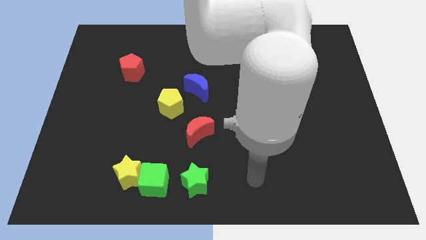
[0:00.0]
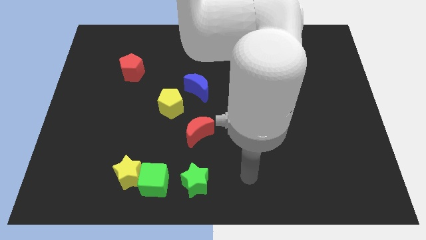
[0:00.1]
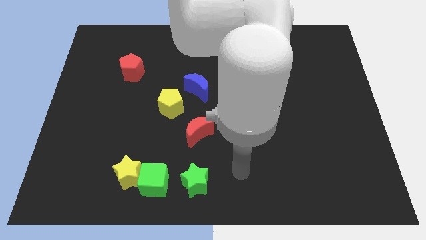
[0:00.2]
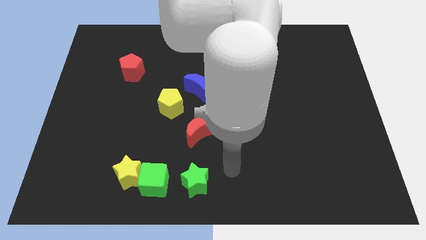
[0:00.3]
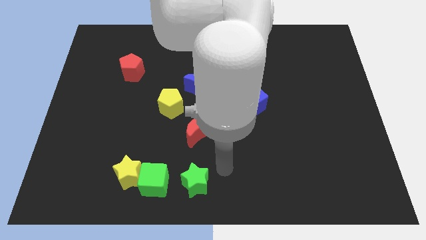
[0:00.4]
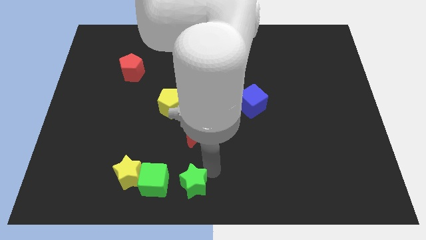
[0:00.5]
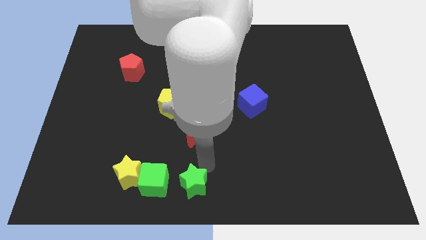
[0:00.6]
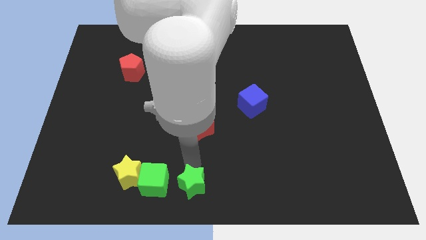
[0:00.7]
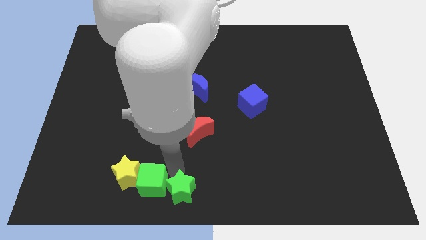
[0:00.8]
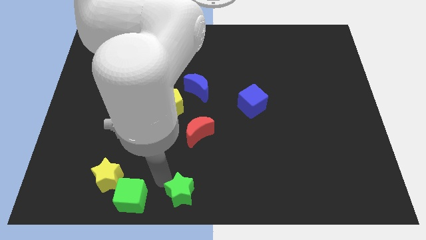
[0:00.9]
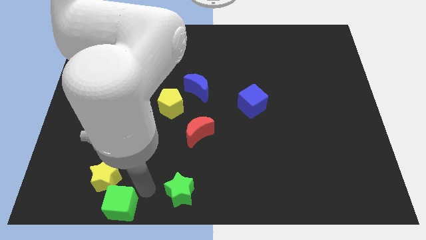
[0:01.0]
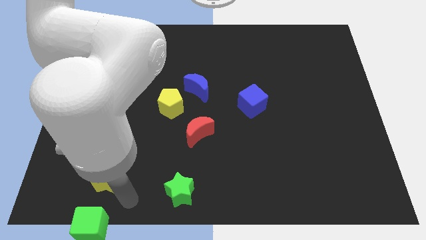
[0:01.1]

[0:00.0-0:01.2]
separate the yellow star from the green cube

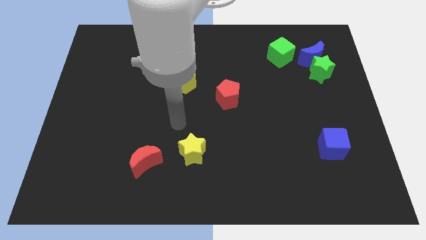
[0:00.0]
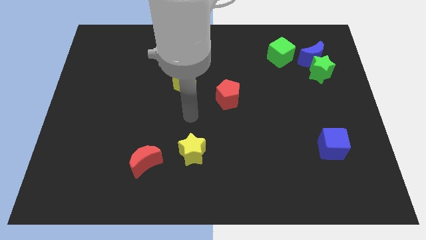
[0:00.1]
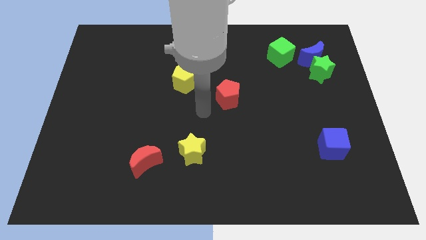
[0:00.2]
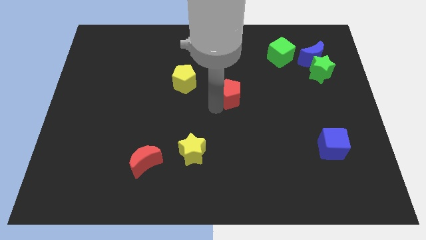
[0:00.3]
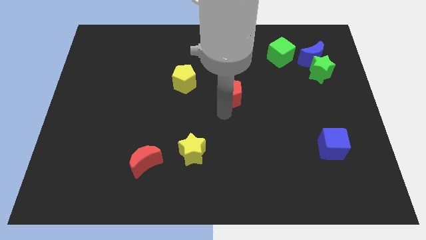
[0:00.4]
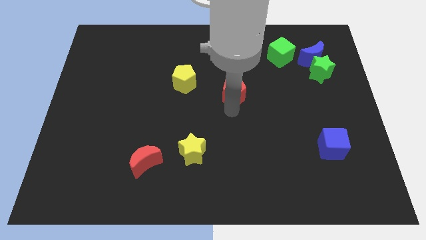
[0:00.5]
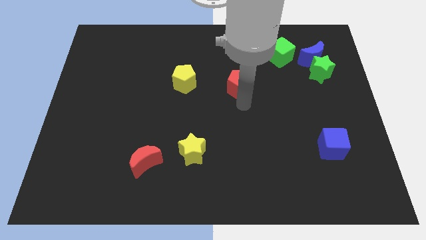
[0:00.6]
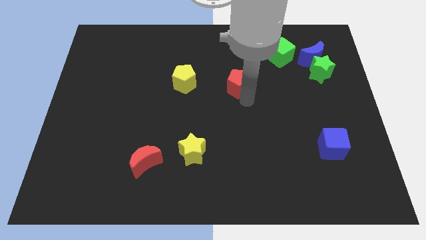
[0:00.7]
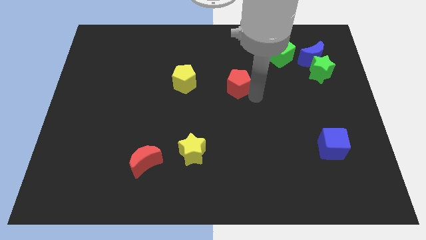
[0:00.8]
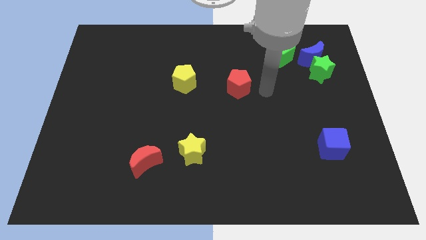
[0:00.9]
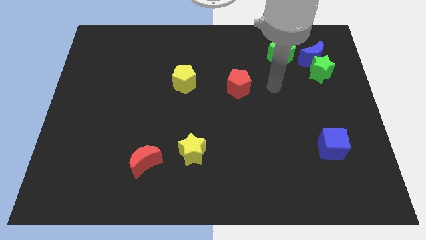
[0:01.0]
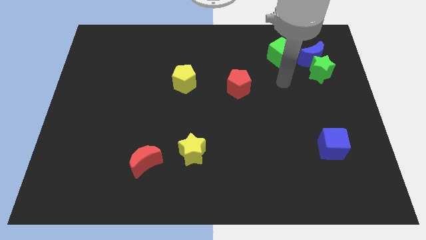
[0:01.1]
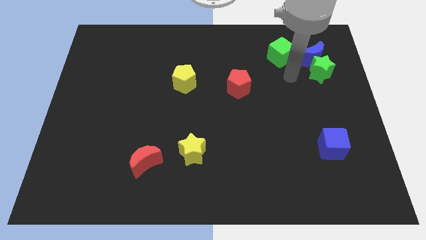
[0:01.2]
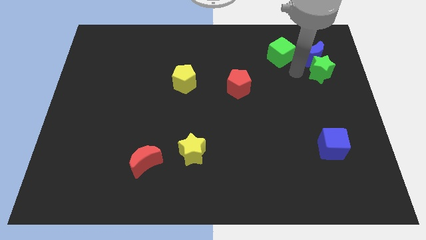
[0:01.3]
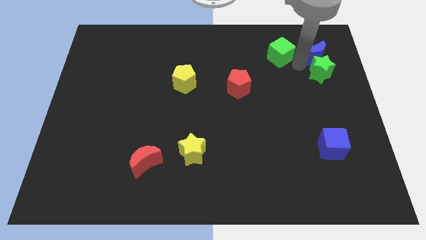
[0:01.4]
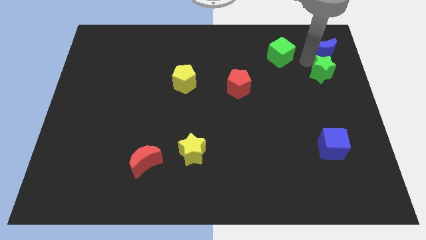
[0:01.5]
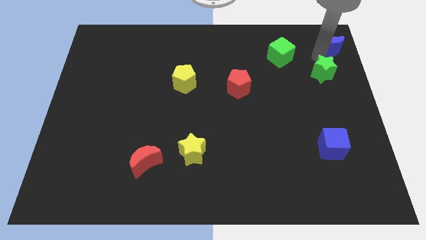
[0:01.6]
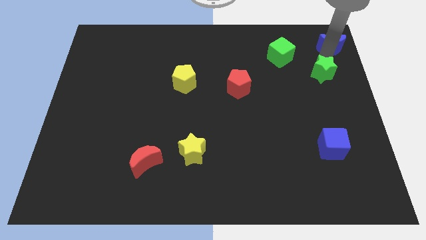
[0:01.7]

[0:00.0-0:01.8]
move the green star away from the blue moon

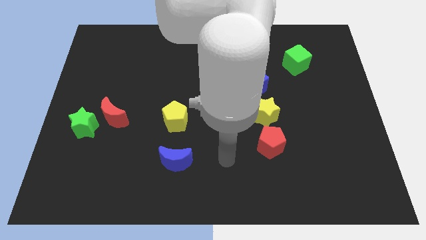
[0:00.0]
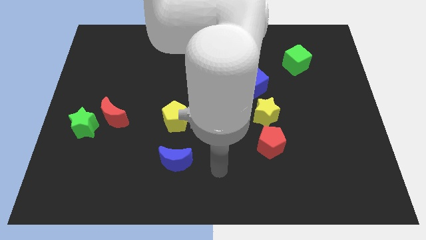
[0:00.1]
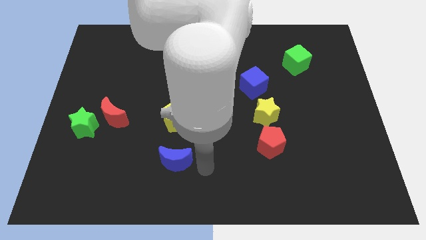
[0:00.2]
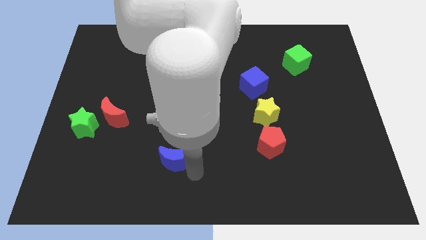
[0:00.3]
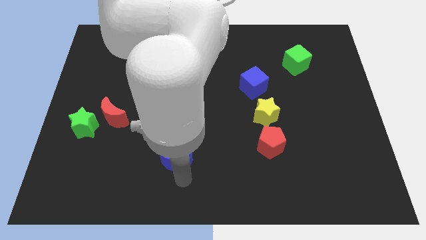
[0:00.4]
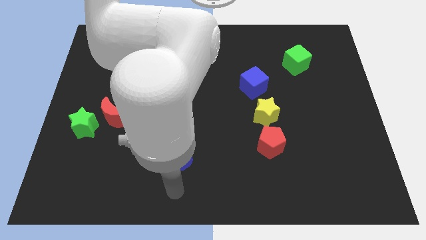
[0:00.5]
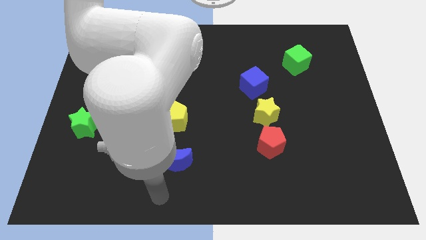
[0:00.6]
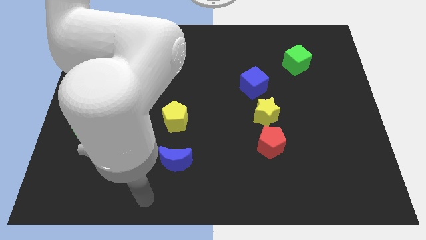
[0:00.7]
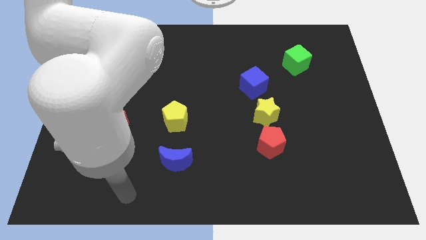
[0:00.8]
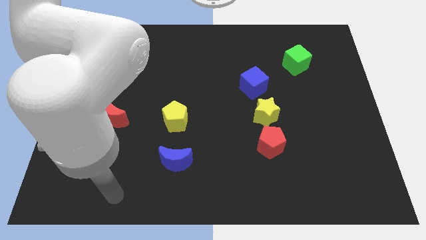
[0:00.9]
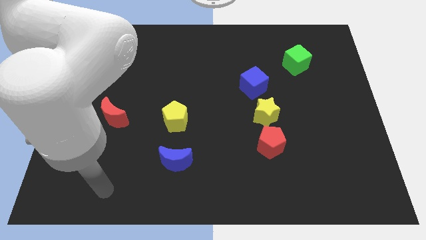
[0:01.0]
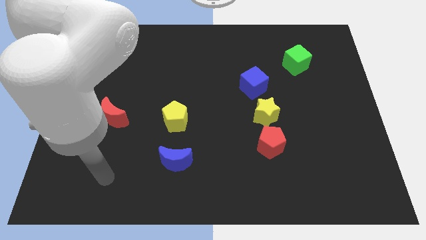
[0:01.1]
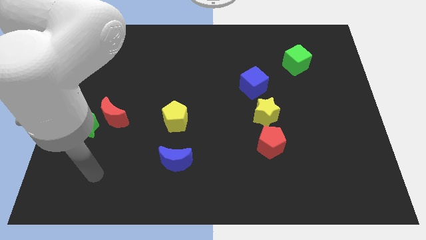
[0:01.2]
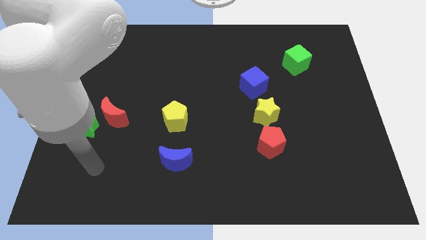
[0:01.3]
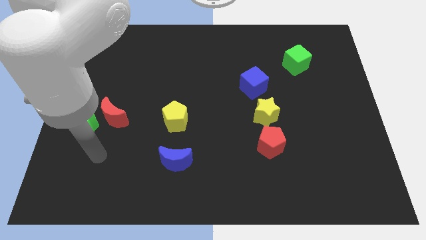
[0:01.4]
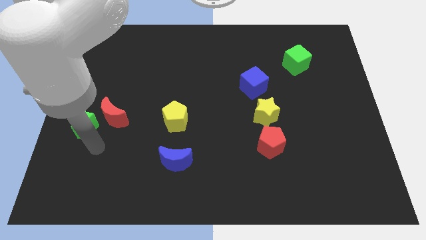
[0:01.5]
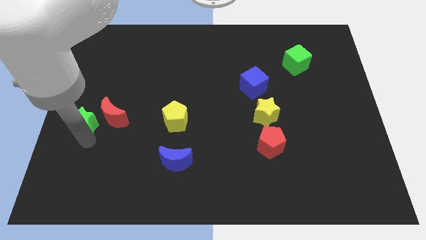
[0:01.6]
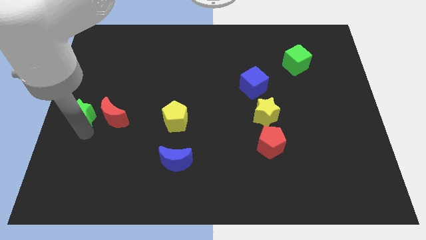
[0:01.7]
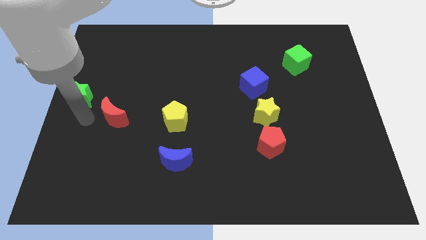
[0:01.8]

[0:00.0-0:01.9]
pull the red moon apart from the green star

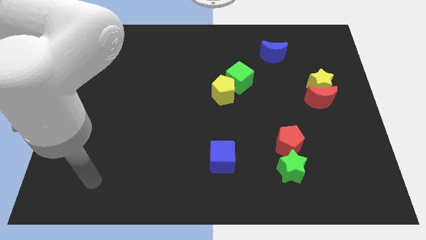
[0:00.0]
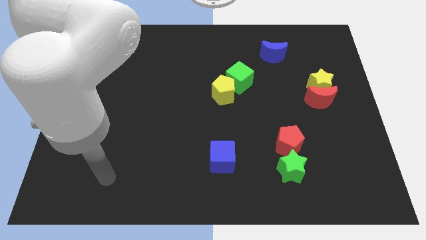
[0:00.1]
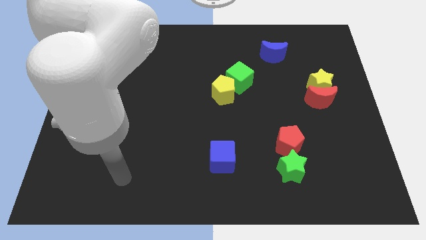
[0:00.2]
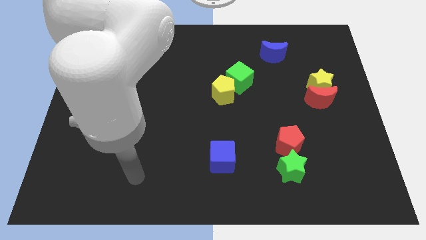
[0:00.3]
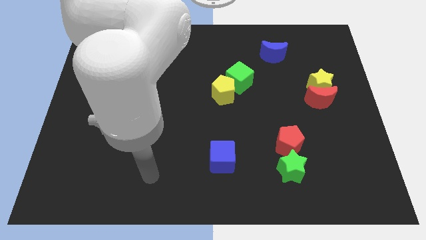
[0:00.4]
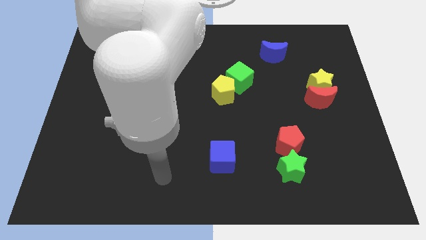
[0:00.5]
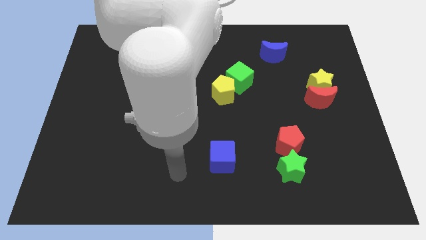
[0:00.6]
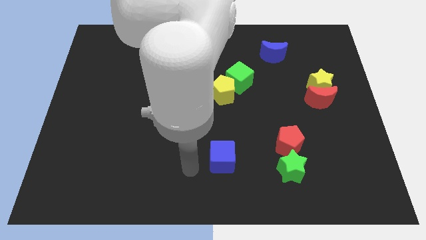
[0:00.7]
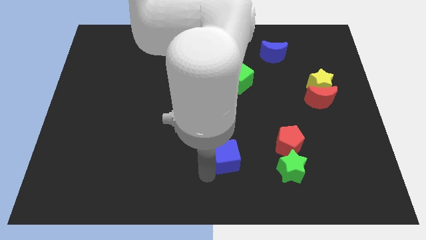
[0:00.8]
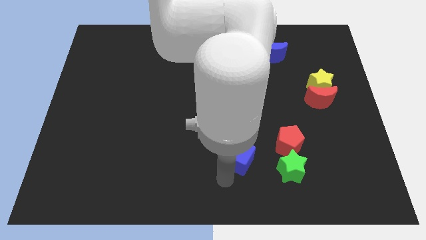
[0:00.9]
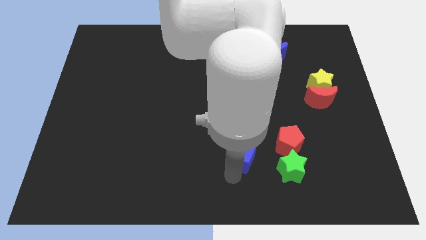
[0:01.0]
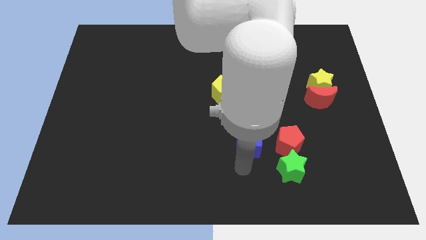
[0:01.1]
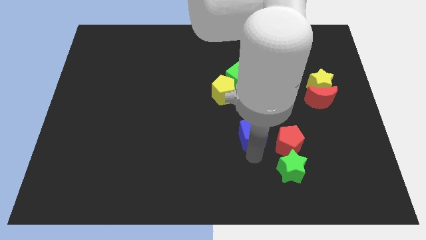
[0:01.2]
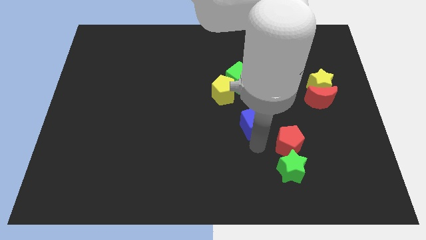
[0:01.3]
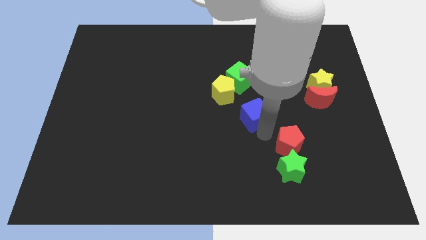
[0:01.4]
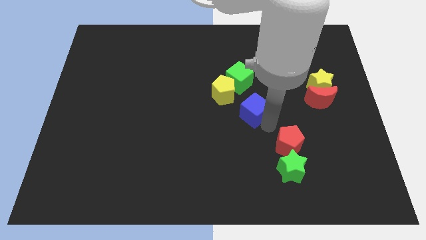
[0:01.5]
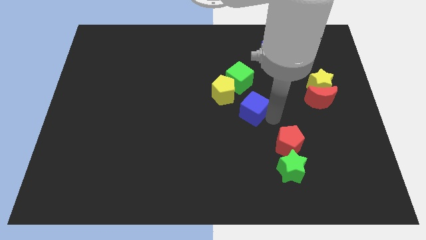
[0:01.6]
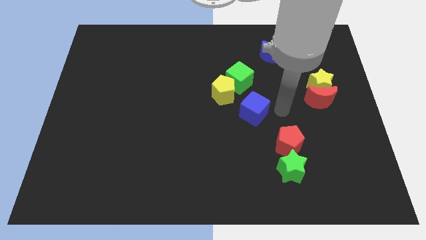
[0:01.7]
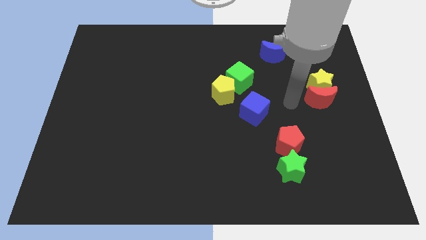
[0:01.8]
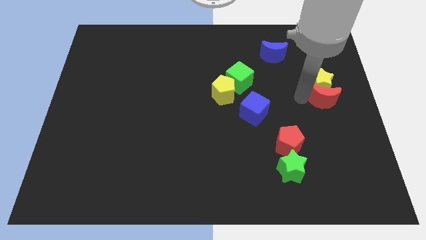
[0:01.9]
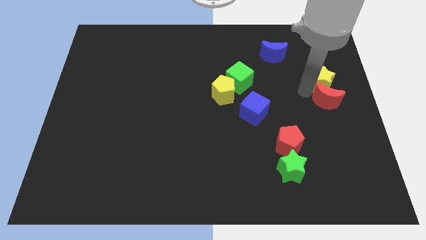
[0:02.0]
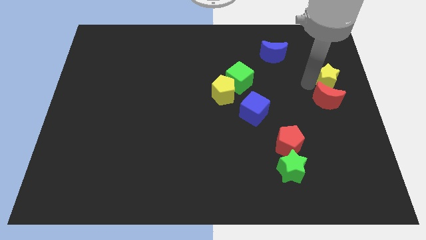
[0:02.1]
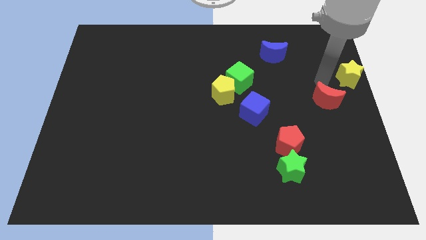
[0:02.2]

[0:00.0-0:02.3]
pull the red moon apart from the yellow star

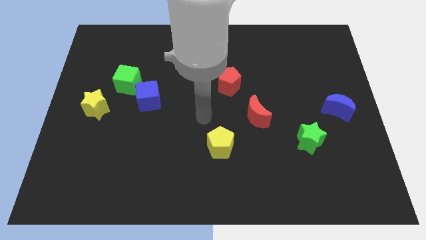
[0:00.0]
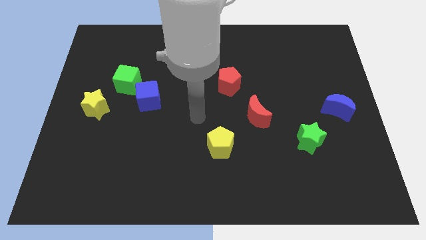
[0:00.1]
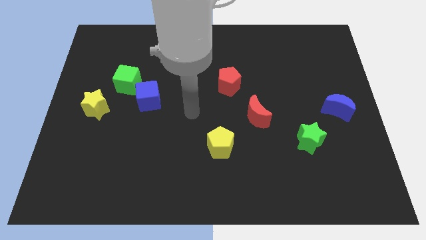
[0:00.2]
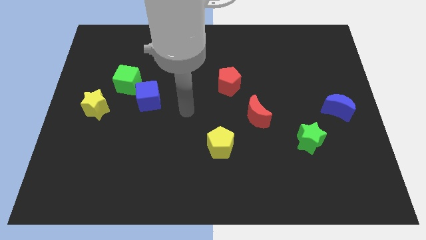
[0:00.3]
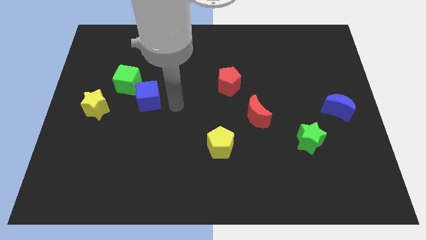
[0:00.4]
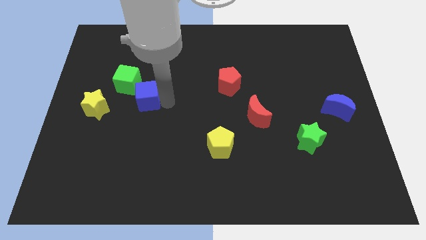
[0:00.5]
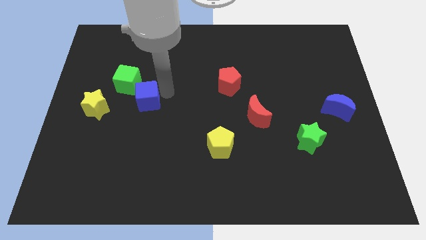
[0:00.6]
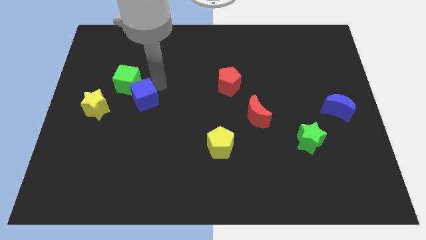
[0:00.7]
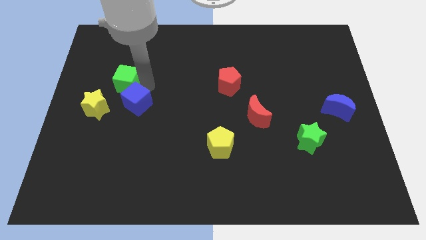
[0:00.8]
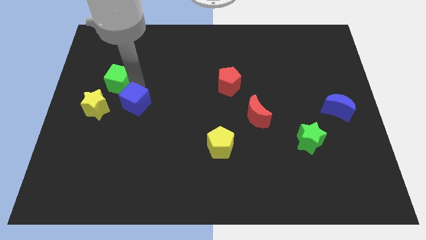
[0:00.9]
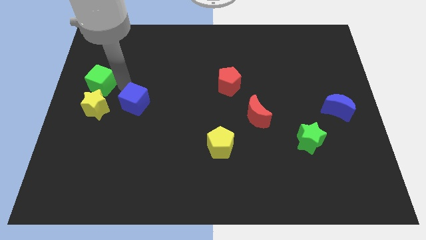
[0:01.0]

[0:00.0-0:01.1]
pull the blue cube apart from the green cube

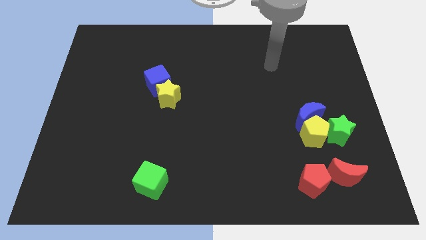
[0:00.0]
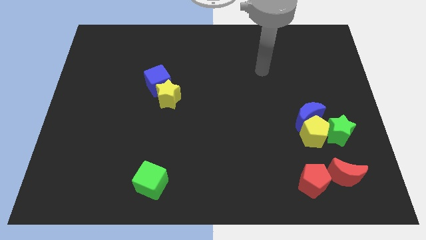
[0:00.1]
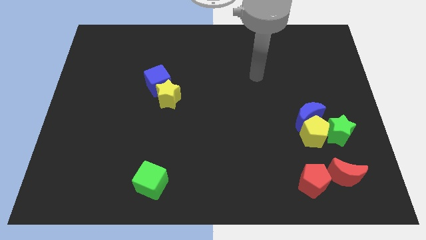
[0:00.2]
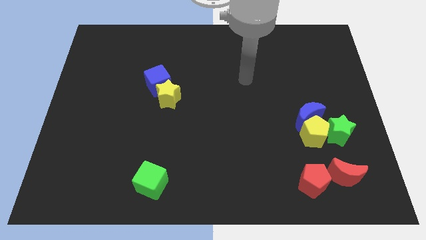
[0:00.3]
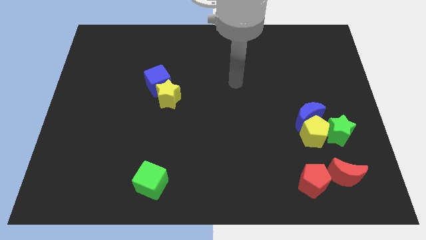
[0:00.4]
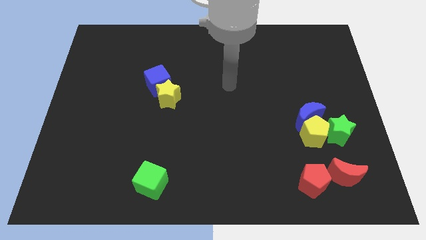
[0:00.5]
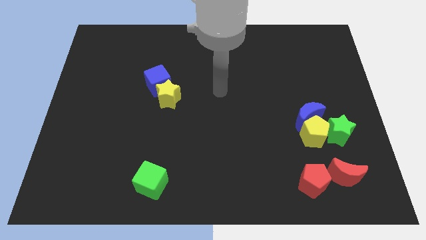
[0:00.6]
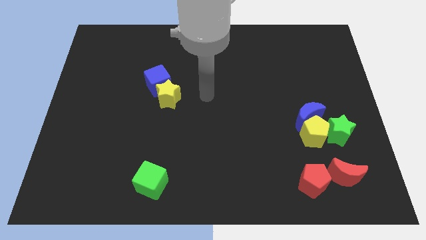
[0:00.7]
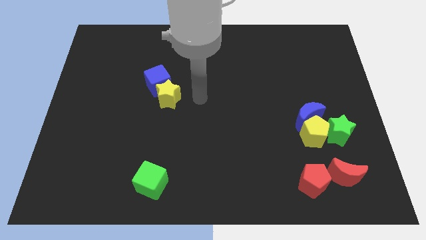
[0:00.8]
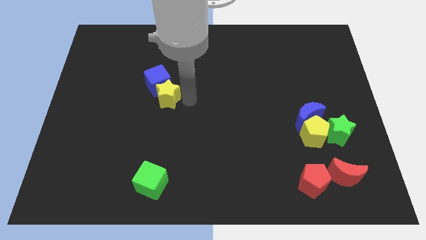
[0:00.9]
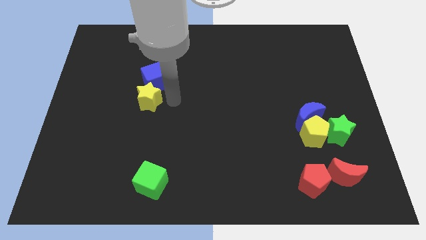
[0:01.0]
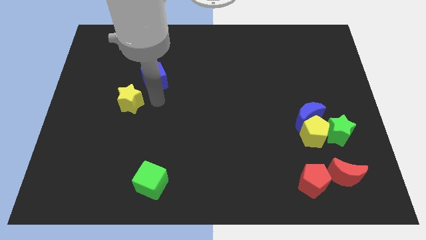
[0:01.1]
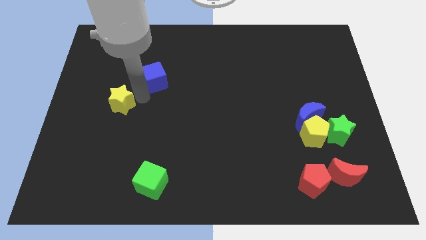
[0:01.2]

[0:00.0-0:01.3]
pull the blue cube apart from the yellow star
